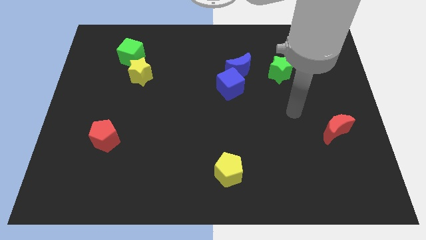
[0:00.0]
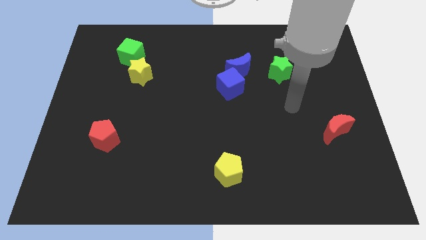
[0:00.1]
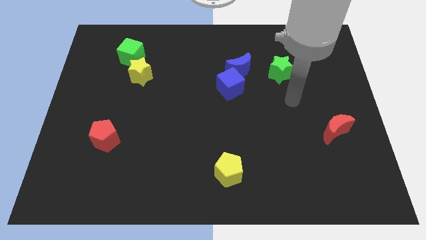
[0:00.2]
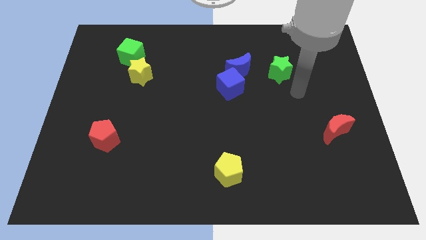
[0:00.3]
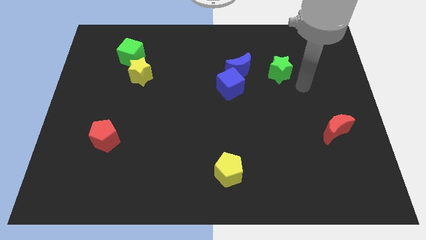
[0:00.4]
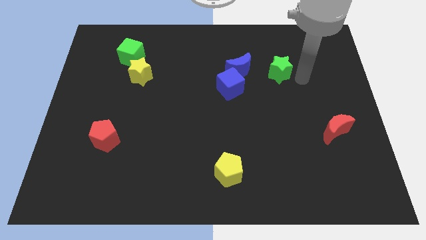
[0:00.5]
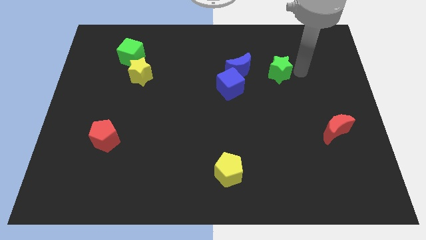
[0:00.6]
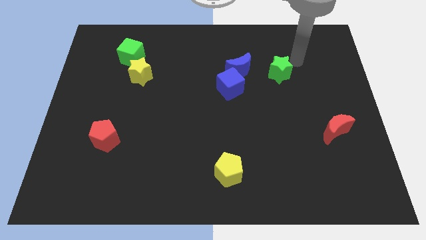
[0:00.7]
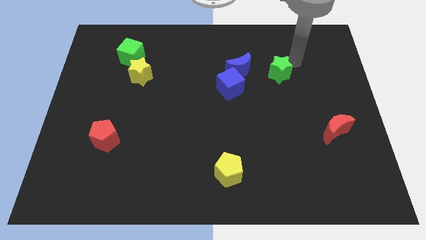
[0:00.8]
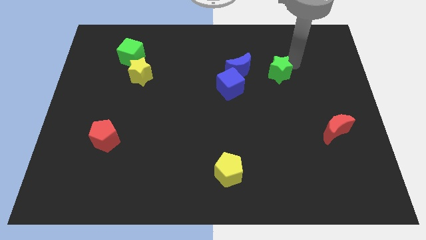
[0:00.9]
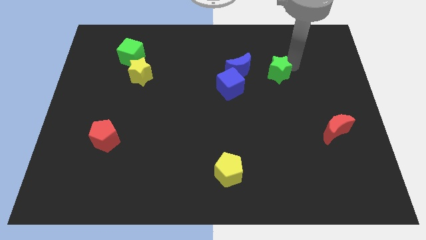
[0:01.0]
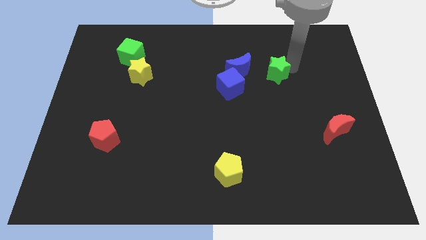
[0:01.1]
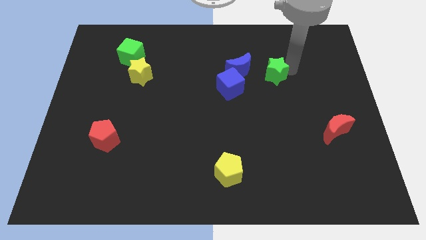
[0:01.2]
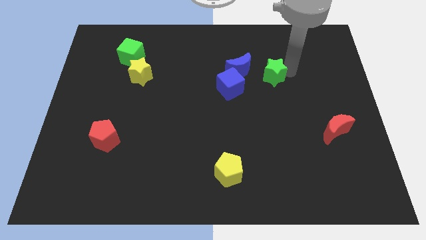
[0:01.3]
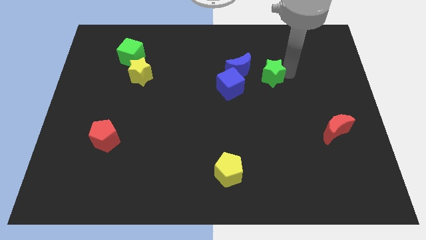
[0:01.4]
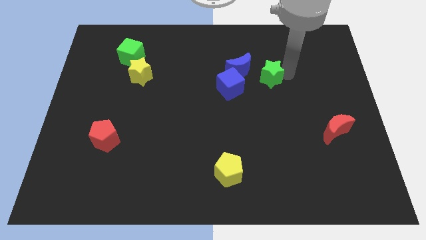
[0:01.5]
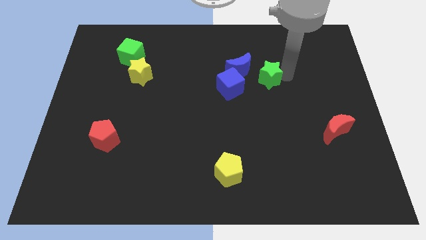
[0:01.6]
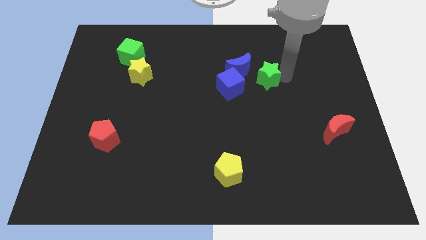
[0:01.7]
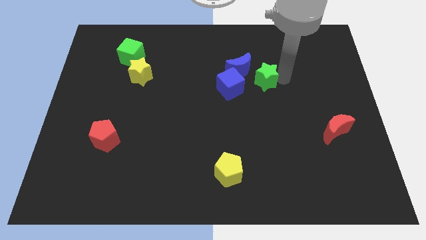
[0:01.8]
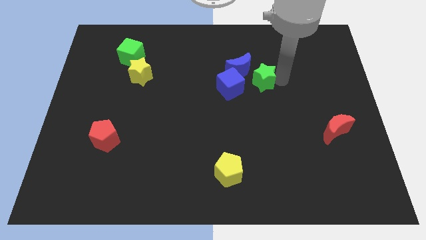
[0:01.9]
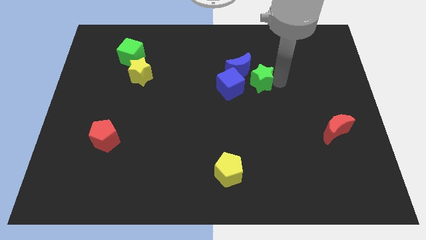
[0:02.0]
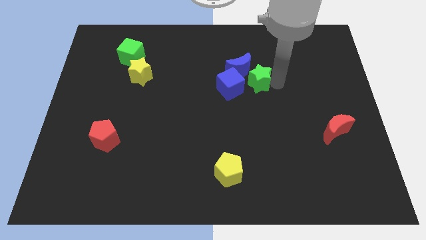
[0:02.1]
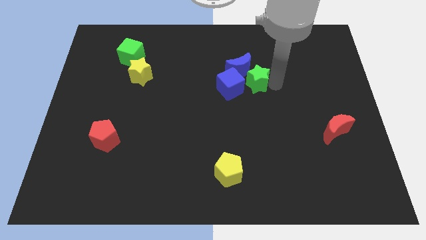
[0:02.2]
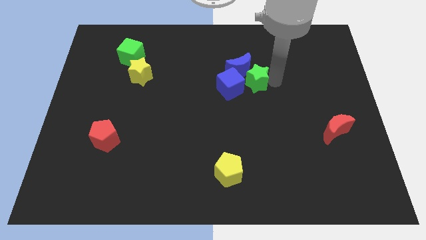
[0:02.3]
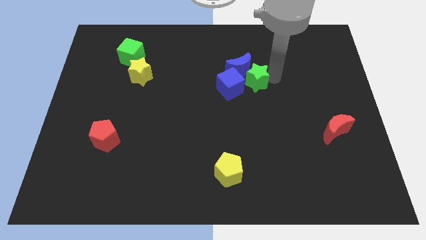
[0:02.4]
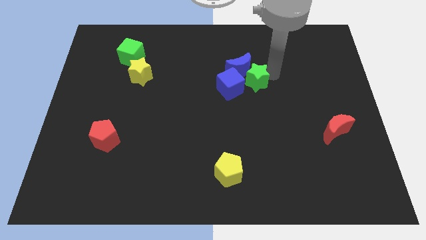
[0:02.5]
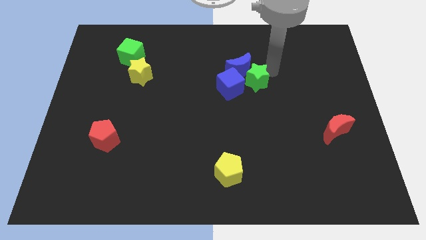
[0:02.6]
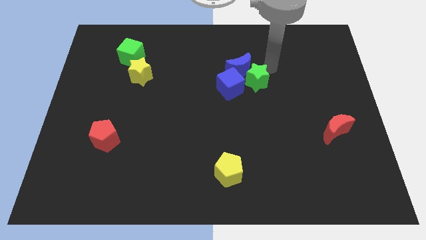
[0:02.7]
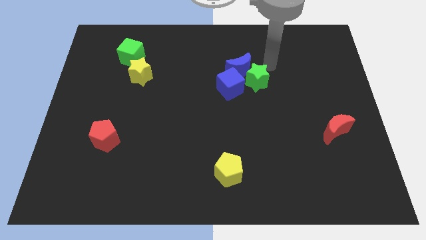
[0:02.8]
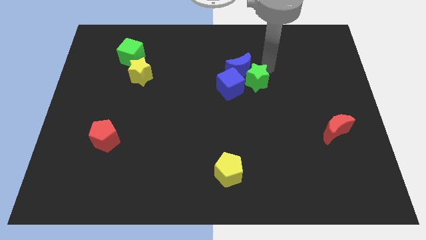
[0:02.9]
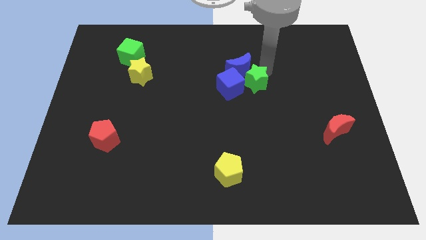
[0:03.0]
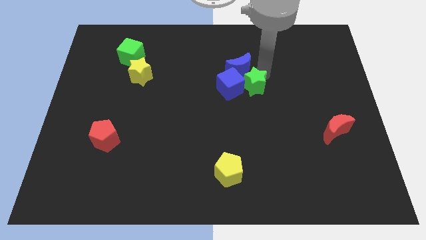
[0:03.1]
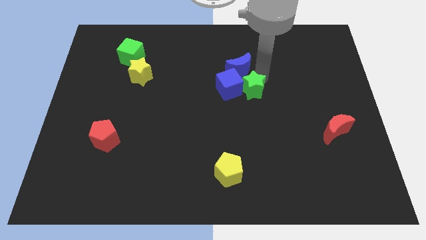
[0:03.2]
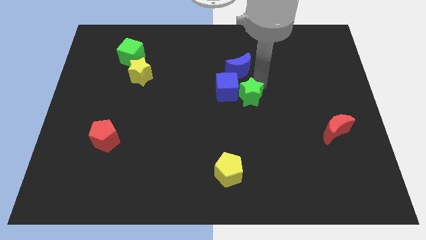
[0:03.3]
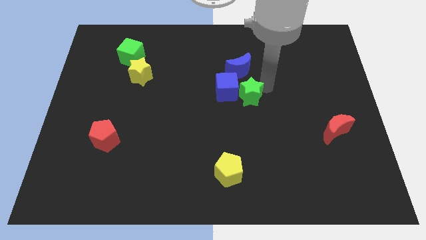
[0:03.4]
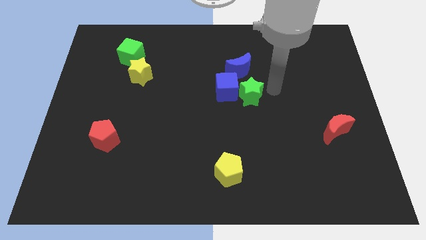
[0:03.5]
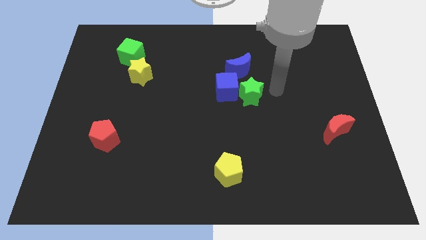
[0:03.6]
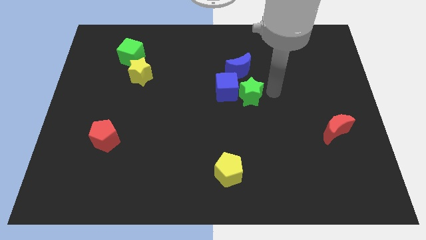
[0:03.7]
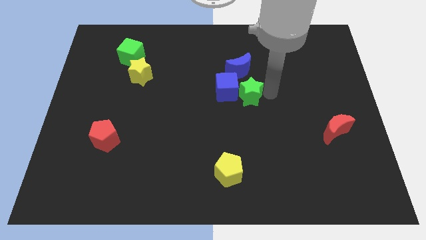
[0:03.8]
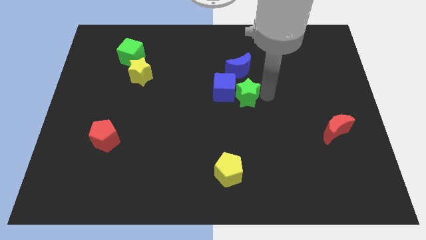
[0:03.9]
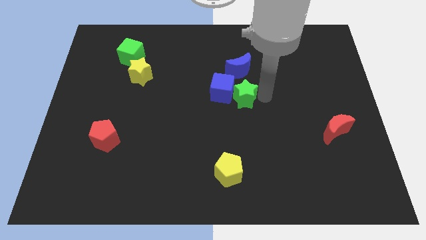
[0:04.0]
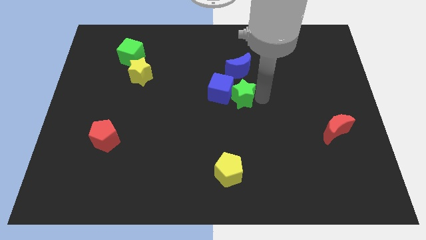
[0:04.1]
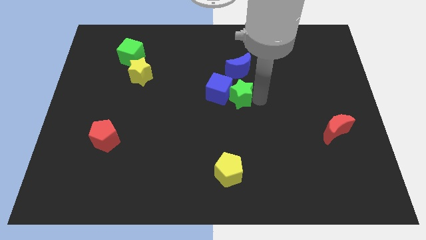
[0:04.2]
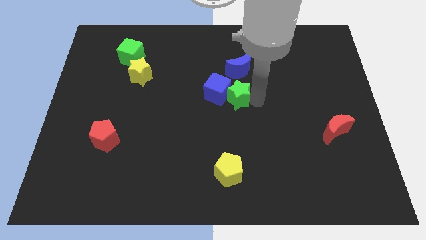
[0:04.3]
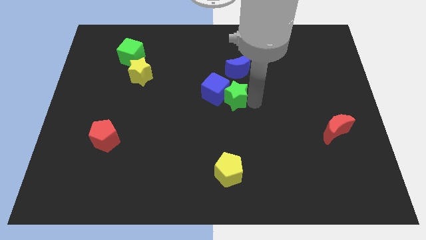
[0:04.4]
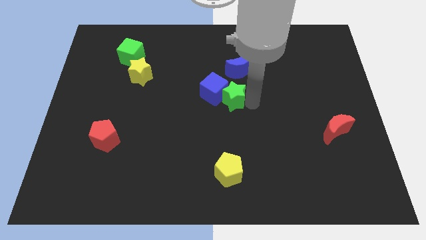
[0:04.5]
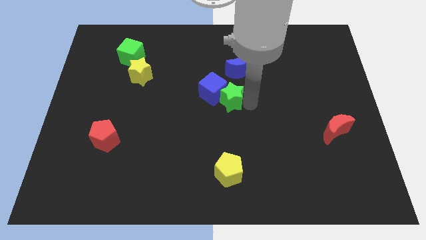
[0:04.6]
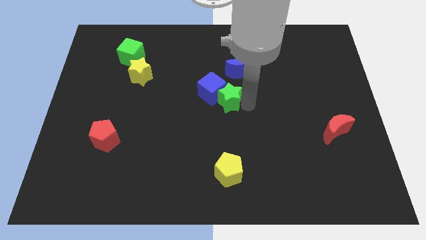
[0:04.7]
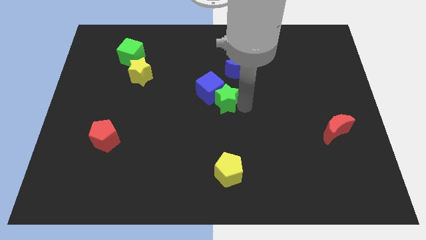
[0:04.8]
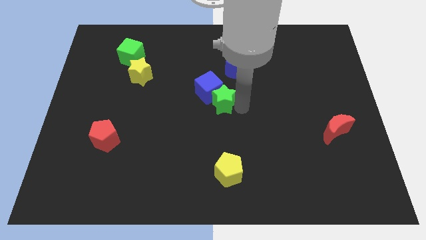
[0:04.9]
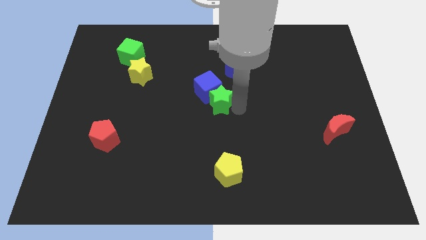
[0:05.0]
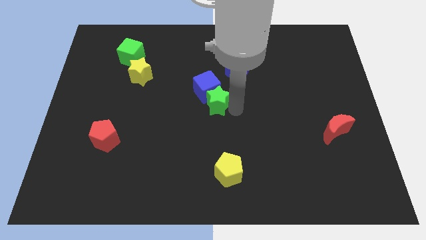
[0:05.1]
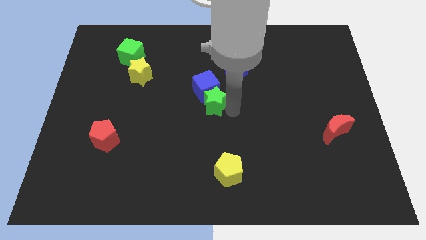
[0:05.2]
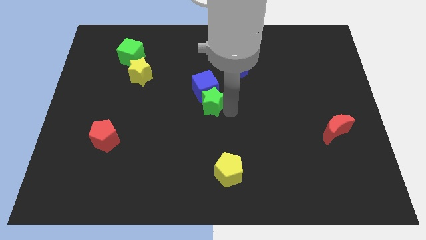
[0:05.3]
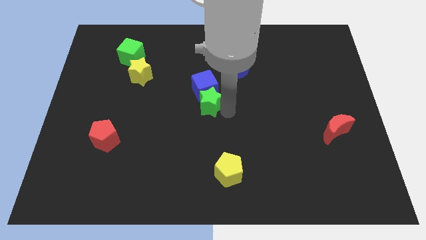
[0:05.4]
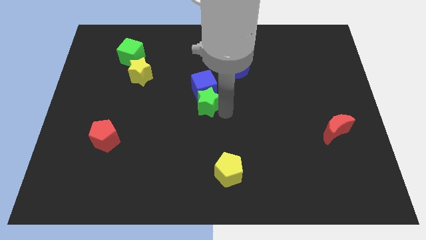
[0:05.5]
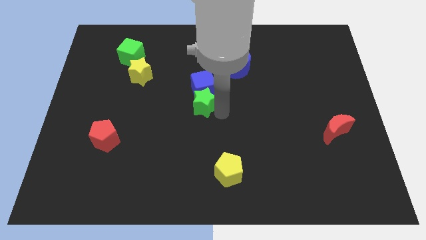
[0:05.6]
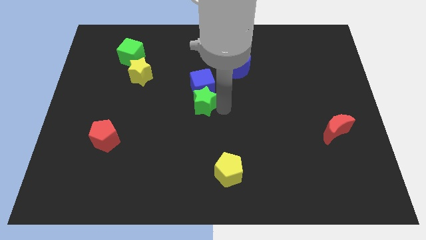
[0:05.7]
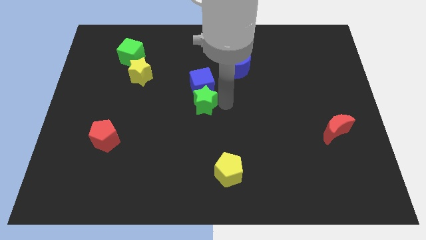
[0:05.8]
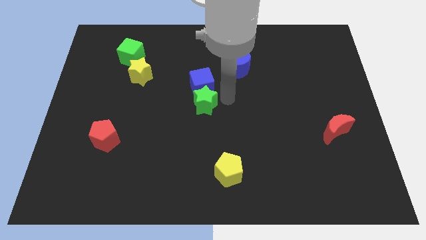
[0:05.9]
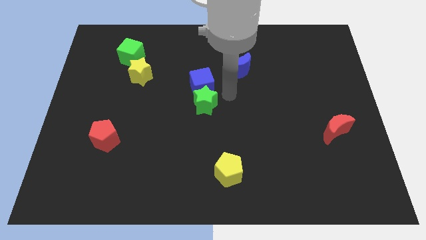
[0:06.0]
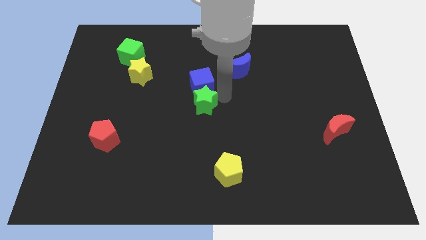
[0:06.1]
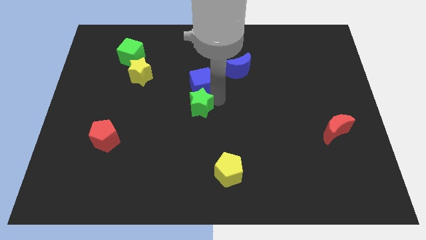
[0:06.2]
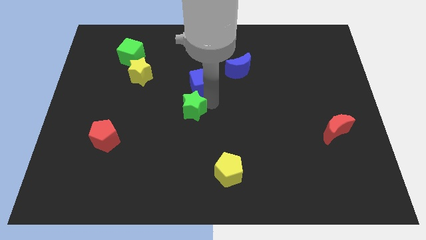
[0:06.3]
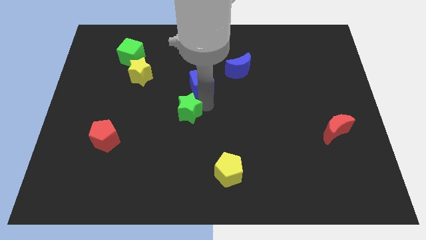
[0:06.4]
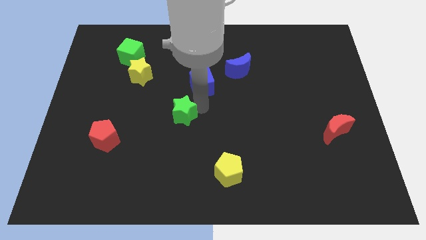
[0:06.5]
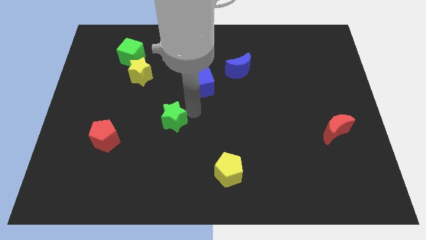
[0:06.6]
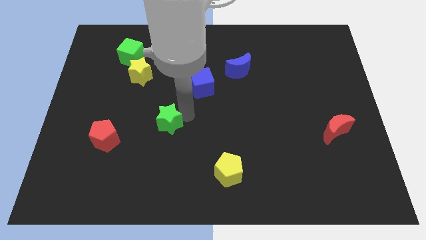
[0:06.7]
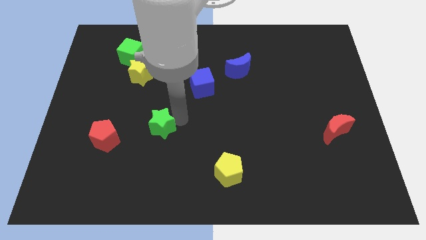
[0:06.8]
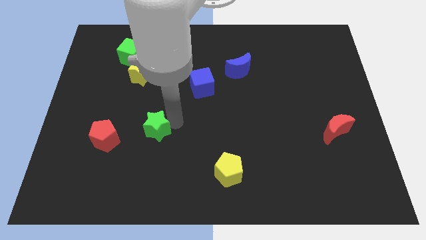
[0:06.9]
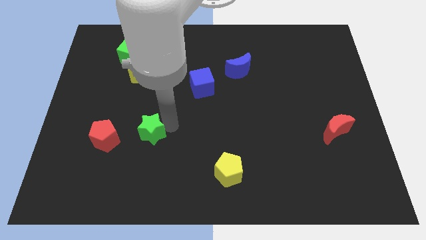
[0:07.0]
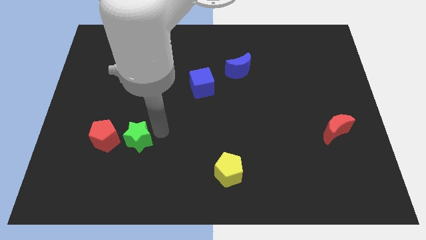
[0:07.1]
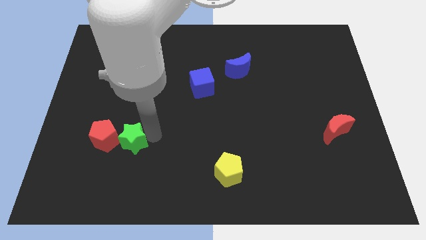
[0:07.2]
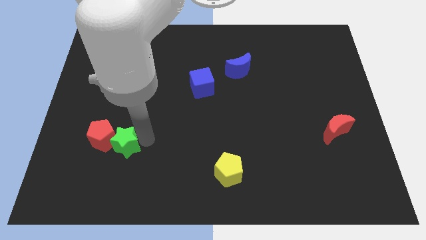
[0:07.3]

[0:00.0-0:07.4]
slide the green star towards the red pentagon
